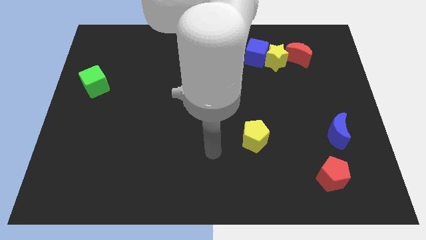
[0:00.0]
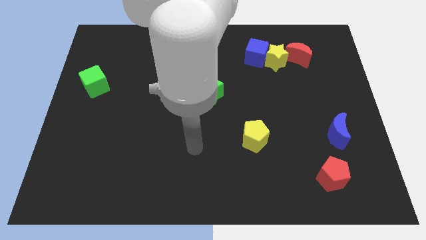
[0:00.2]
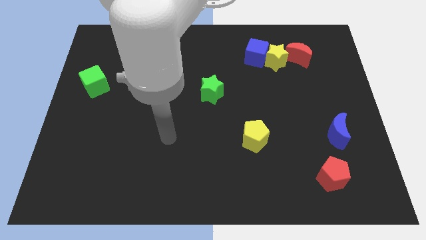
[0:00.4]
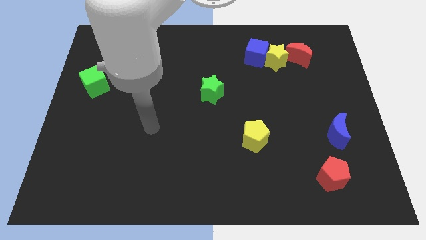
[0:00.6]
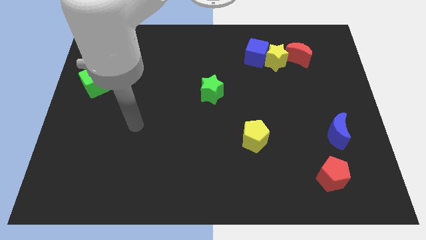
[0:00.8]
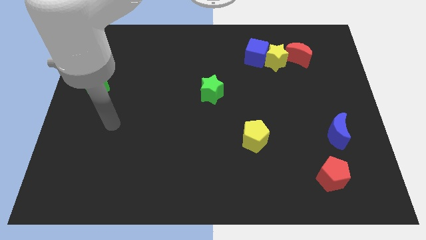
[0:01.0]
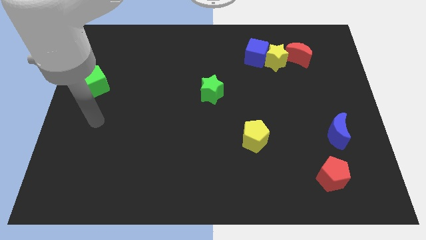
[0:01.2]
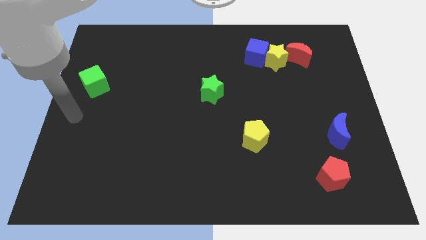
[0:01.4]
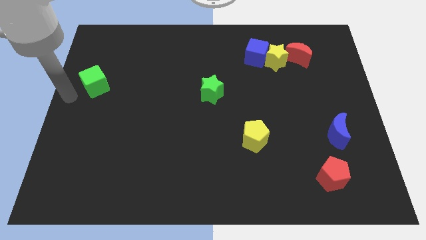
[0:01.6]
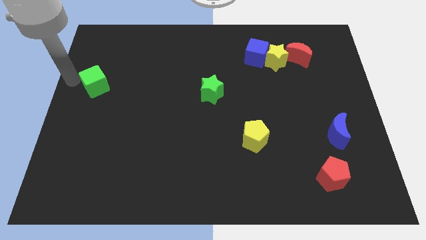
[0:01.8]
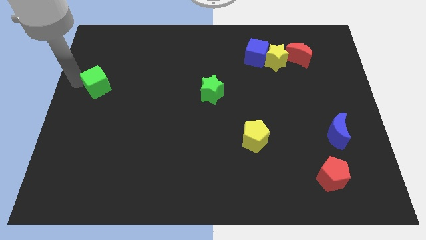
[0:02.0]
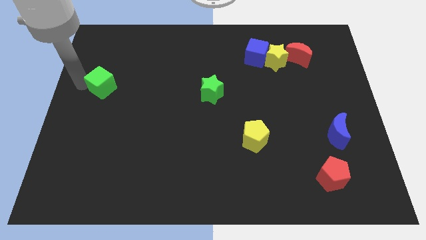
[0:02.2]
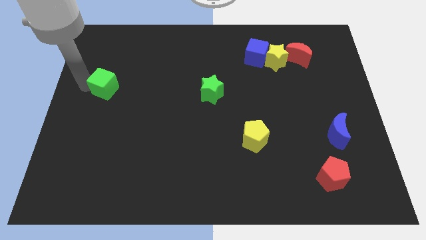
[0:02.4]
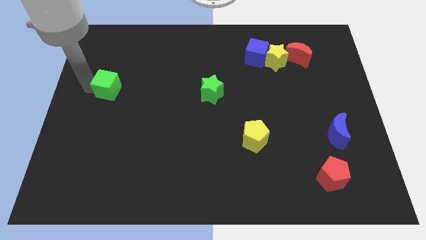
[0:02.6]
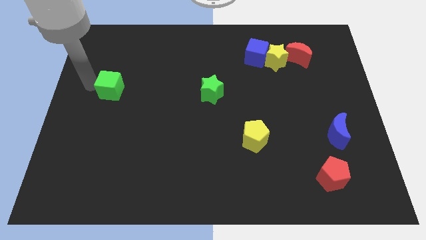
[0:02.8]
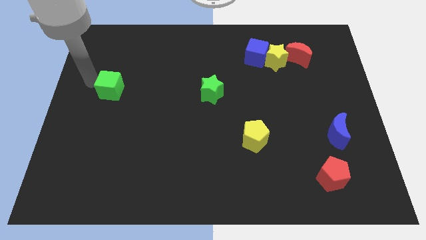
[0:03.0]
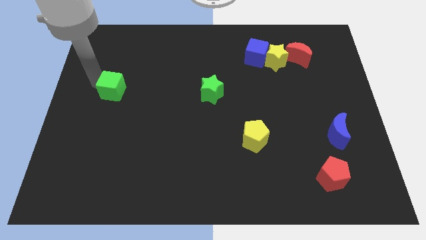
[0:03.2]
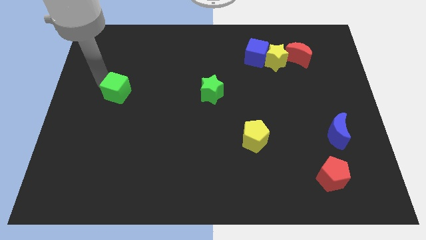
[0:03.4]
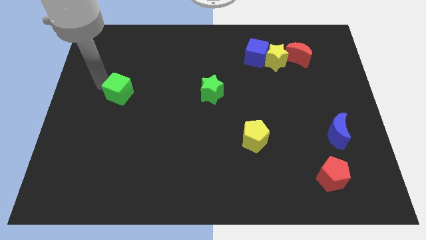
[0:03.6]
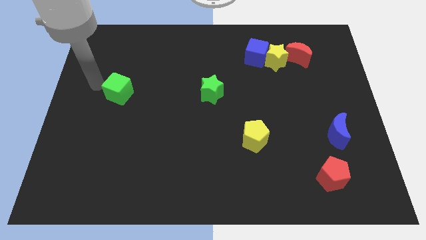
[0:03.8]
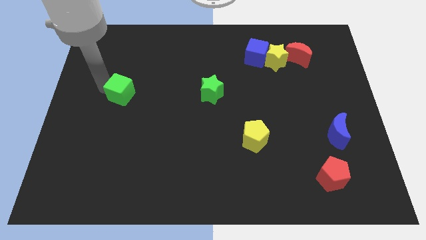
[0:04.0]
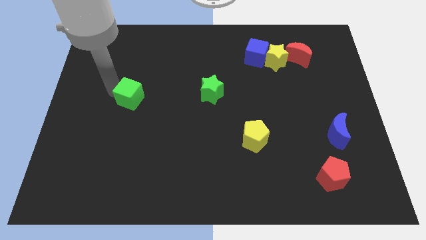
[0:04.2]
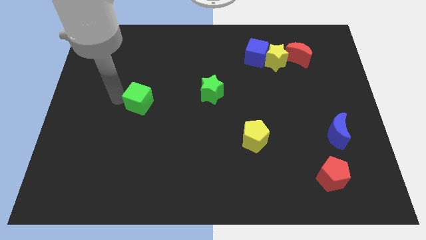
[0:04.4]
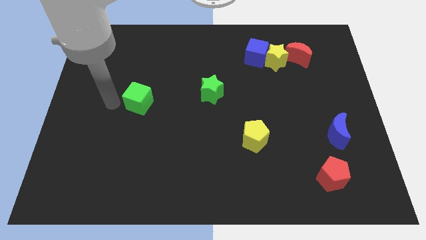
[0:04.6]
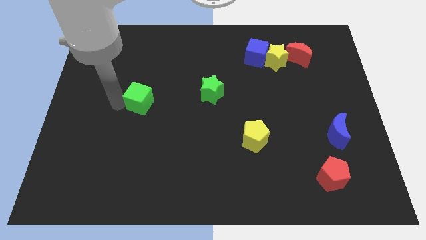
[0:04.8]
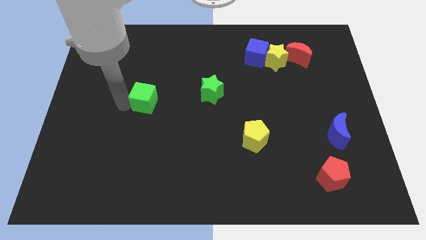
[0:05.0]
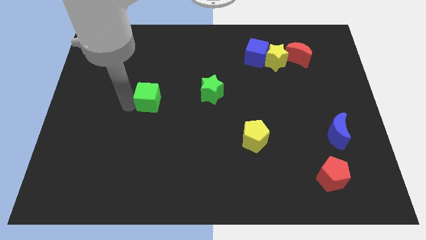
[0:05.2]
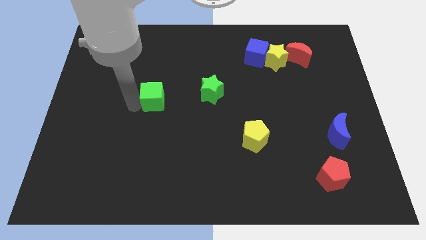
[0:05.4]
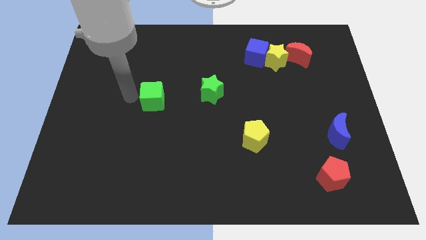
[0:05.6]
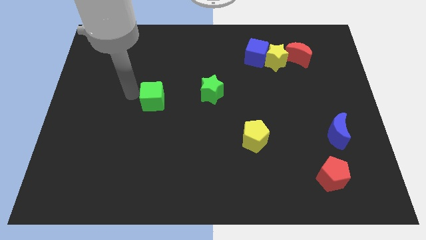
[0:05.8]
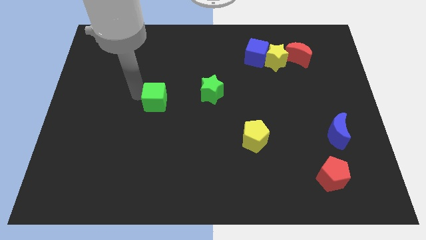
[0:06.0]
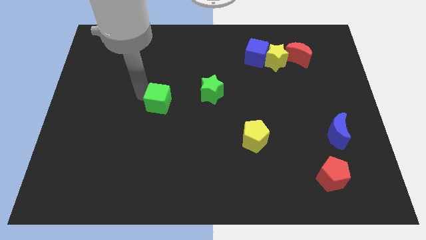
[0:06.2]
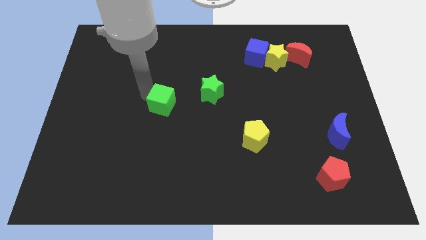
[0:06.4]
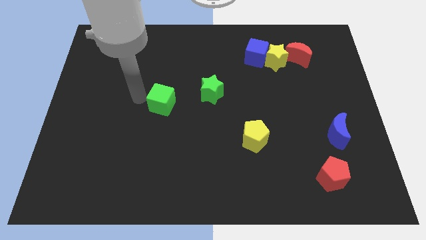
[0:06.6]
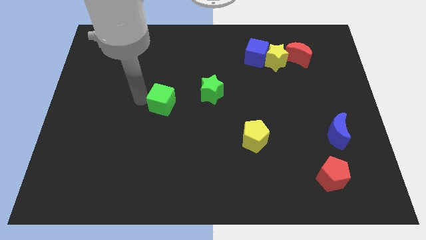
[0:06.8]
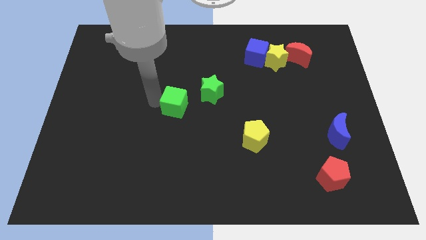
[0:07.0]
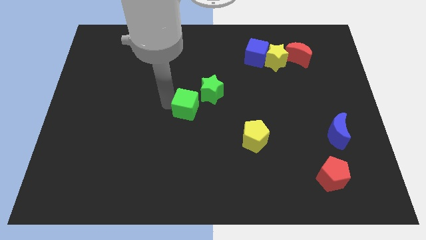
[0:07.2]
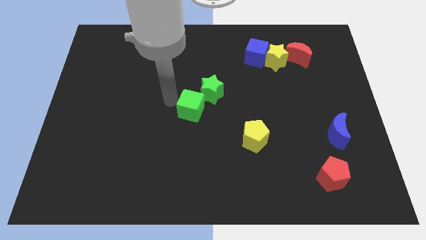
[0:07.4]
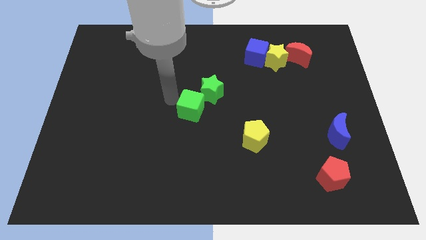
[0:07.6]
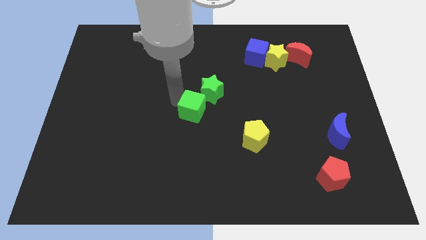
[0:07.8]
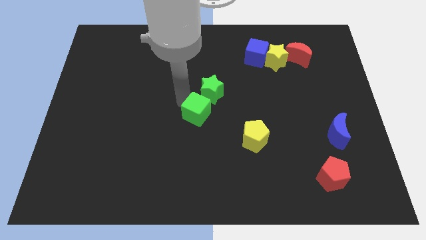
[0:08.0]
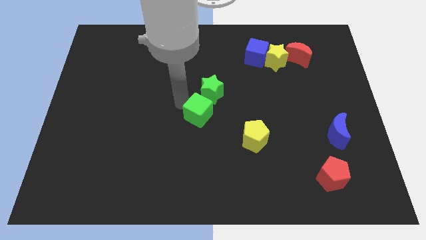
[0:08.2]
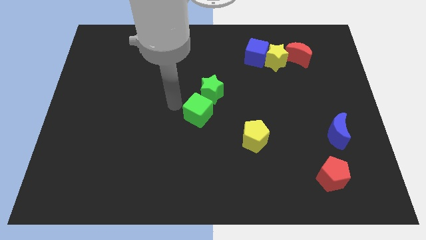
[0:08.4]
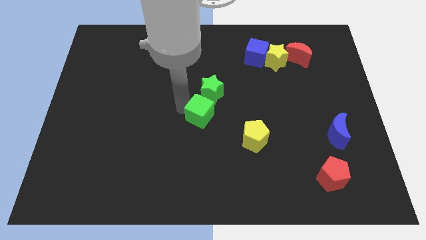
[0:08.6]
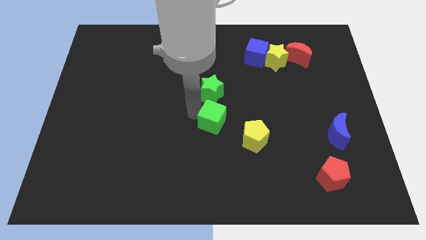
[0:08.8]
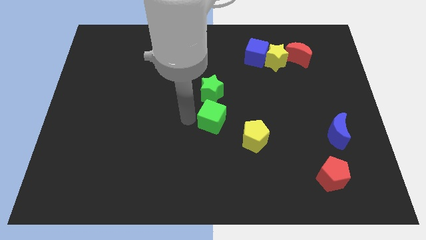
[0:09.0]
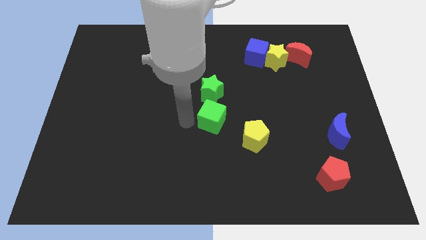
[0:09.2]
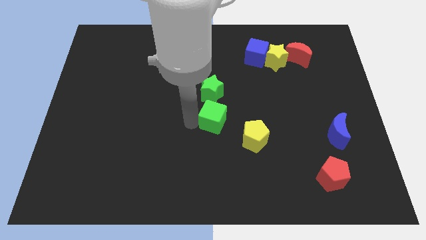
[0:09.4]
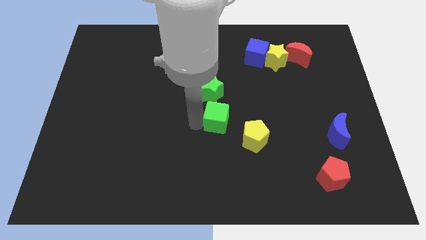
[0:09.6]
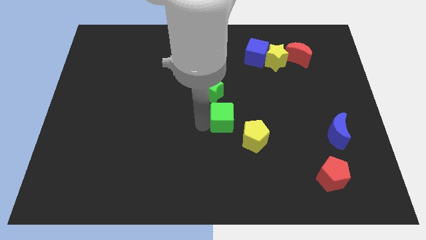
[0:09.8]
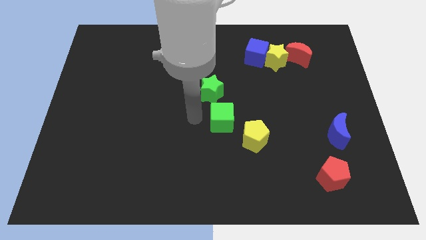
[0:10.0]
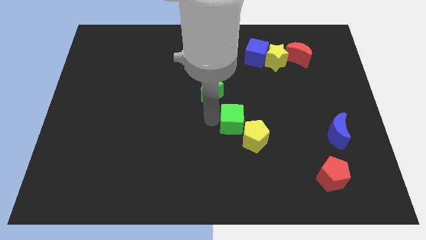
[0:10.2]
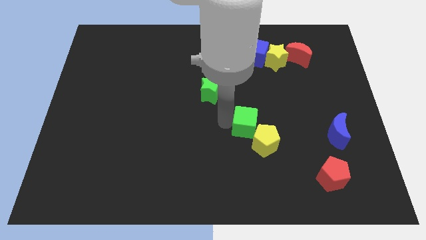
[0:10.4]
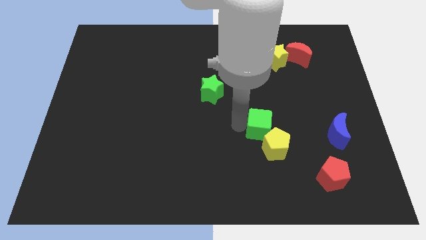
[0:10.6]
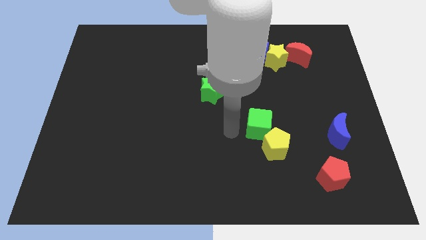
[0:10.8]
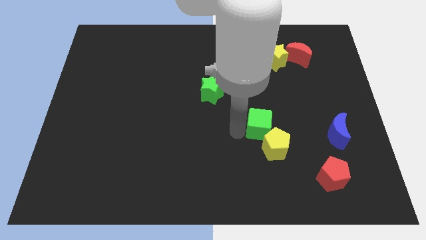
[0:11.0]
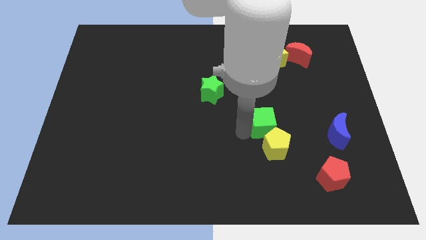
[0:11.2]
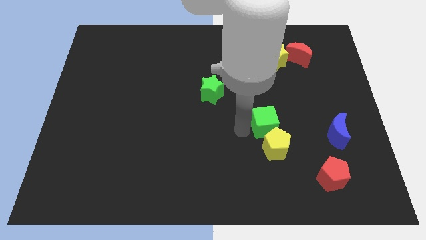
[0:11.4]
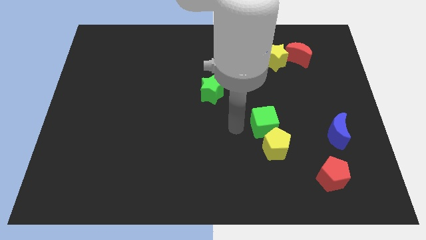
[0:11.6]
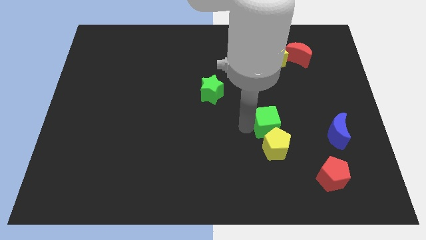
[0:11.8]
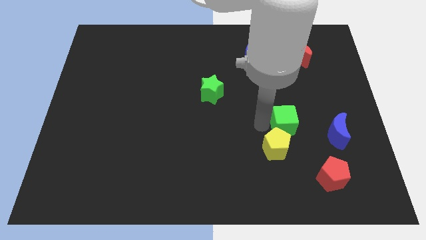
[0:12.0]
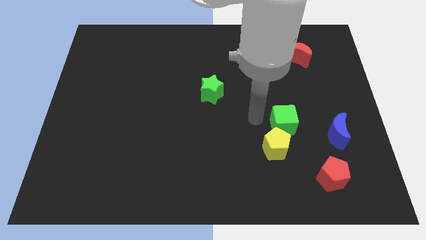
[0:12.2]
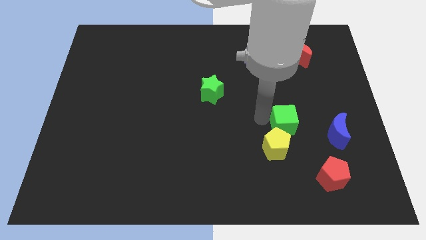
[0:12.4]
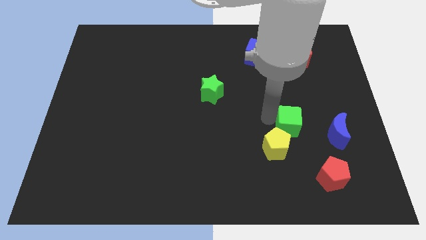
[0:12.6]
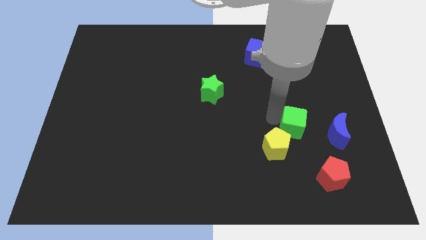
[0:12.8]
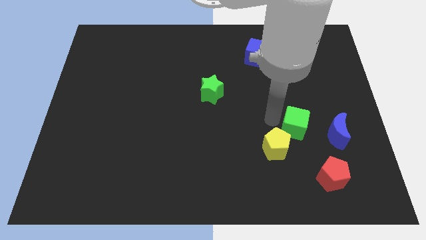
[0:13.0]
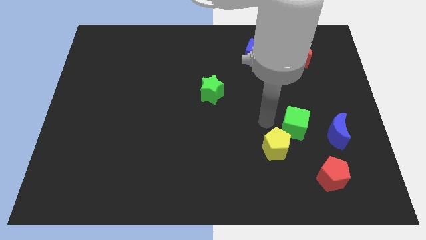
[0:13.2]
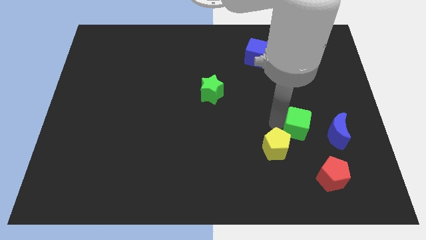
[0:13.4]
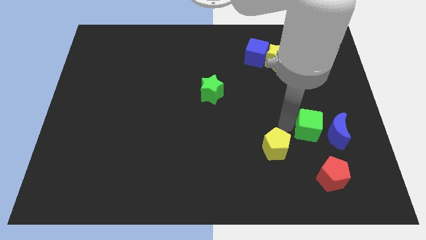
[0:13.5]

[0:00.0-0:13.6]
move the green cube next to the blue moon

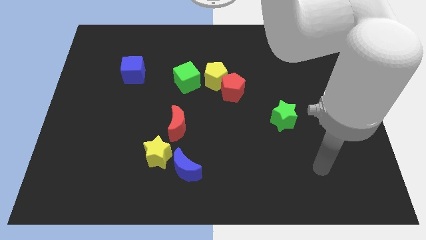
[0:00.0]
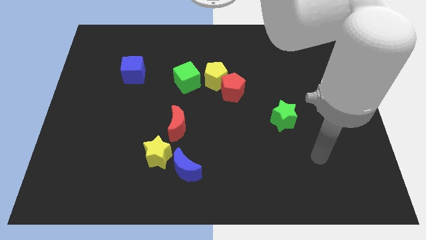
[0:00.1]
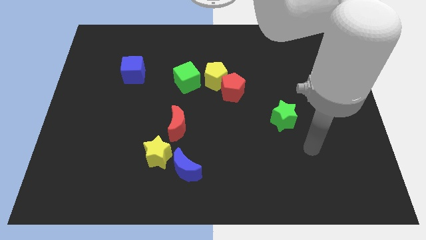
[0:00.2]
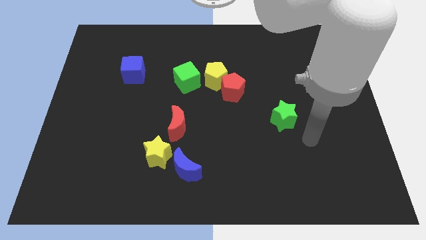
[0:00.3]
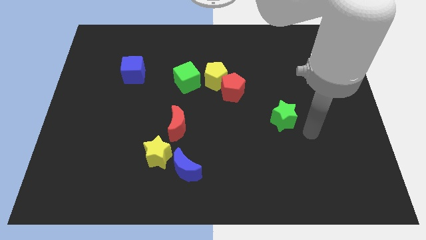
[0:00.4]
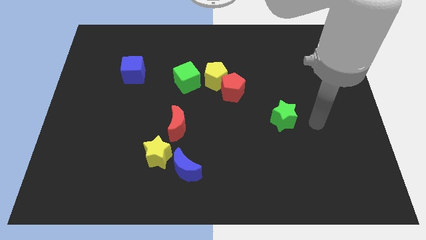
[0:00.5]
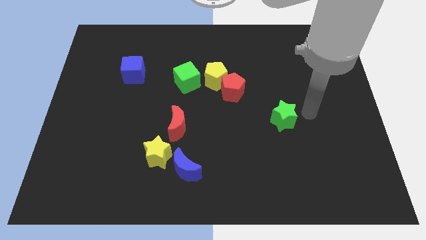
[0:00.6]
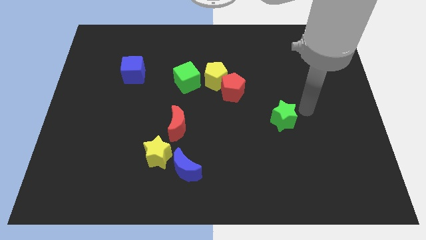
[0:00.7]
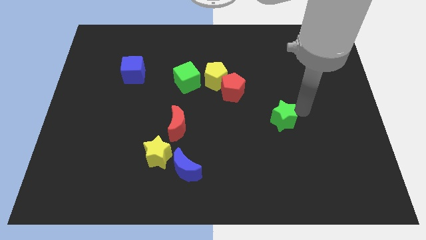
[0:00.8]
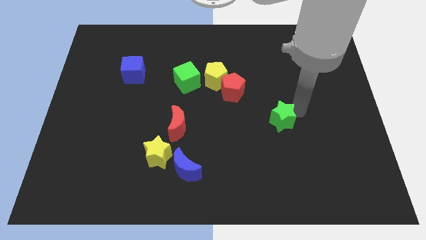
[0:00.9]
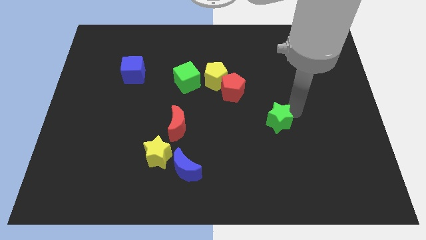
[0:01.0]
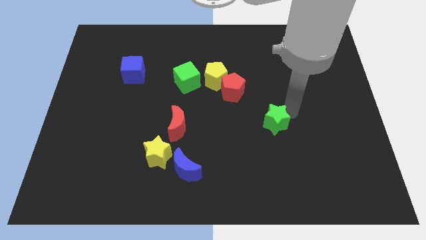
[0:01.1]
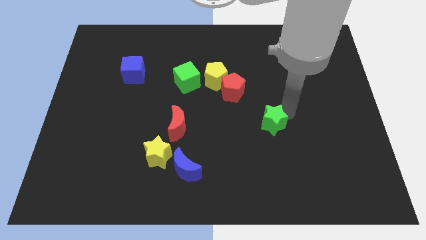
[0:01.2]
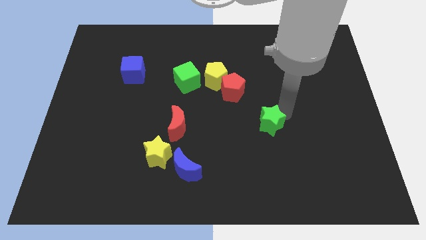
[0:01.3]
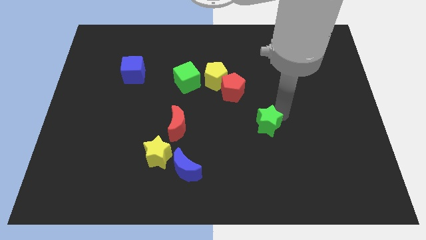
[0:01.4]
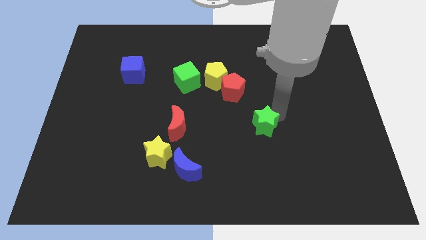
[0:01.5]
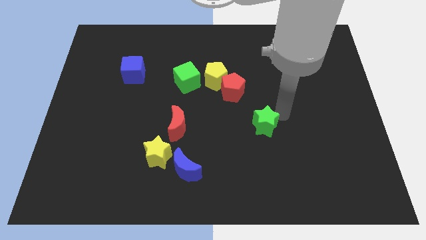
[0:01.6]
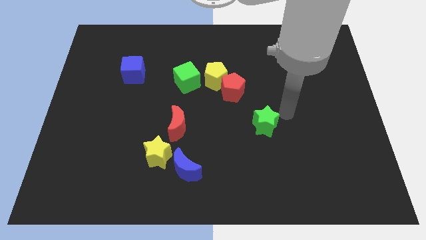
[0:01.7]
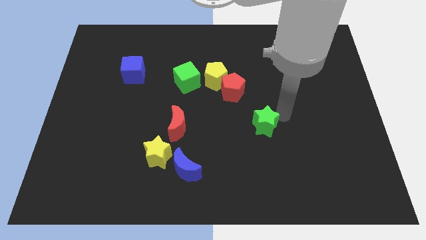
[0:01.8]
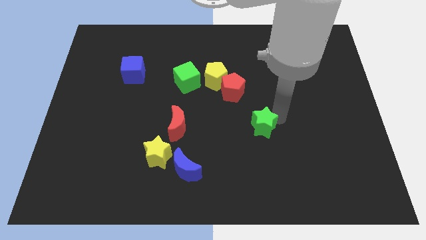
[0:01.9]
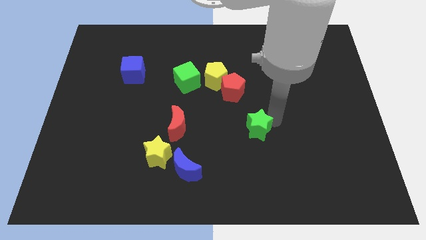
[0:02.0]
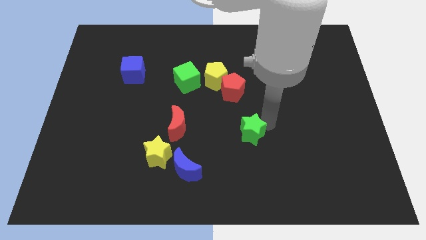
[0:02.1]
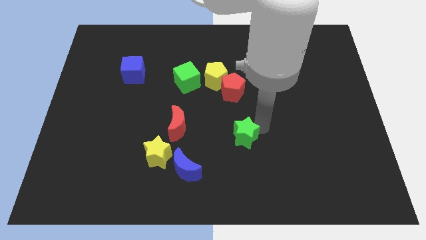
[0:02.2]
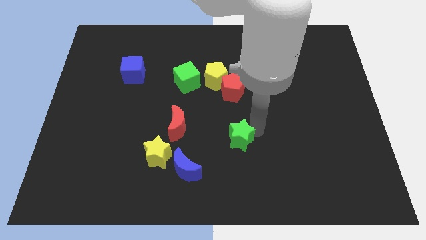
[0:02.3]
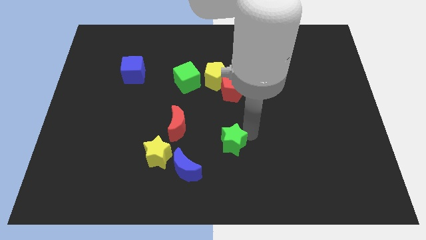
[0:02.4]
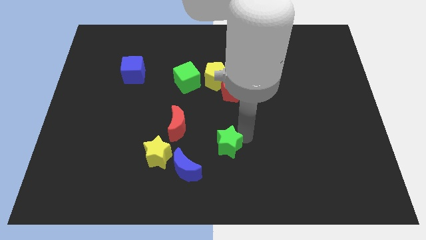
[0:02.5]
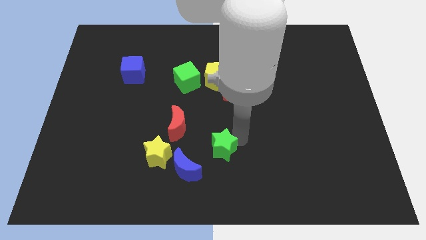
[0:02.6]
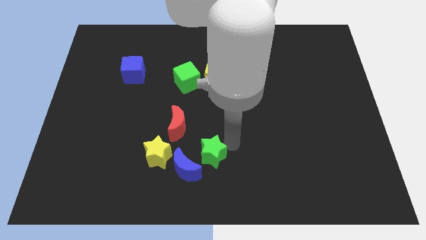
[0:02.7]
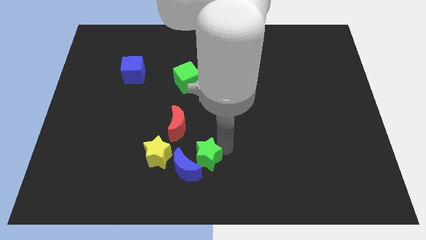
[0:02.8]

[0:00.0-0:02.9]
slide the green star close to the blue moon
